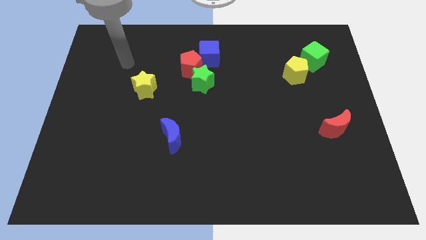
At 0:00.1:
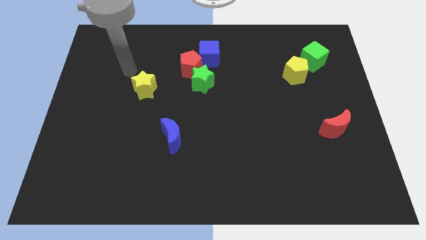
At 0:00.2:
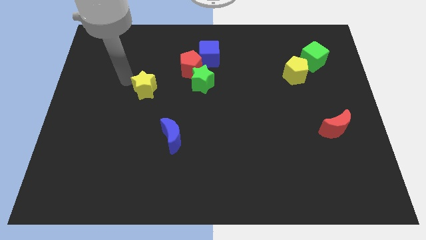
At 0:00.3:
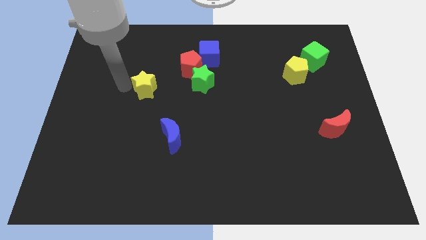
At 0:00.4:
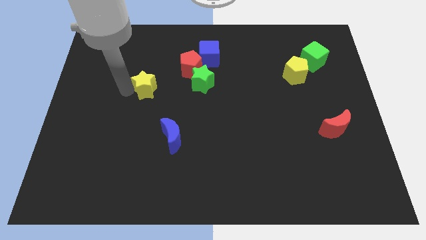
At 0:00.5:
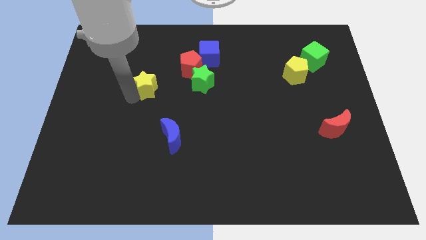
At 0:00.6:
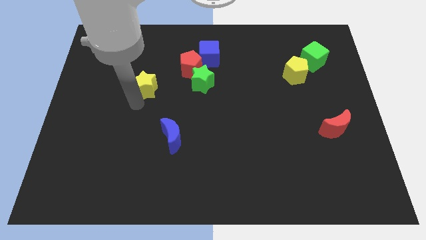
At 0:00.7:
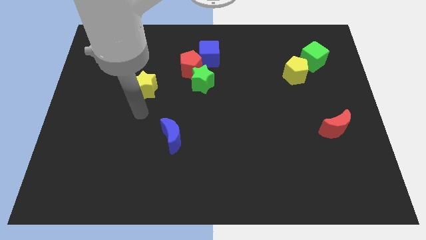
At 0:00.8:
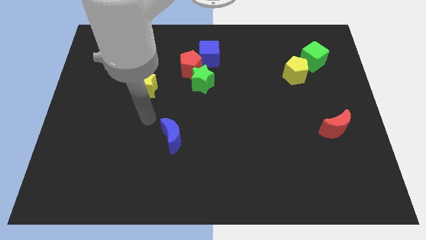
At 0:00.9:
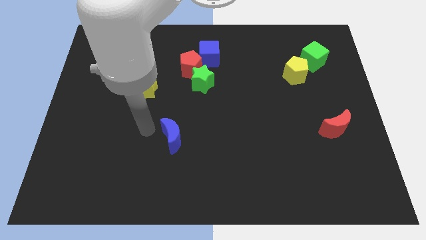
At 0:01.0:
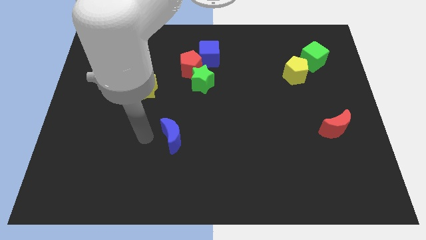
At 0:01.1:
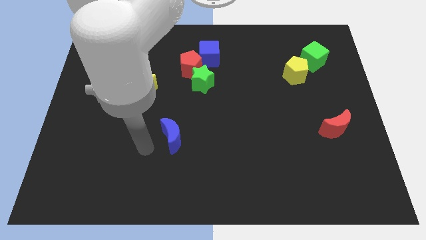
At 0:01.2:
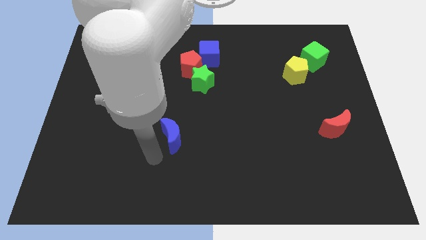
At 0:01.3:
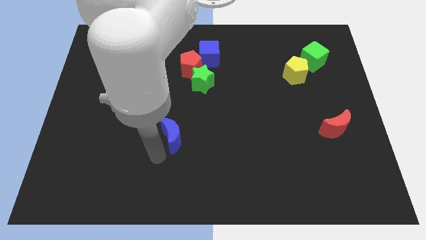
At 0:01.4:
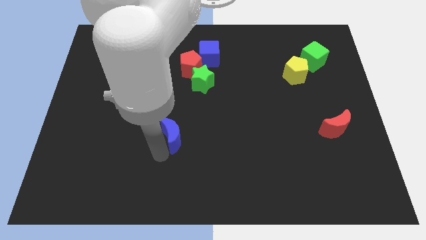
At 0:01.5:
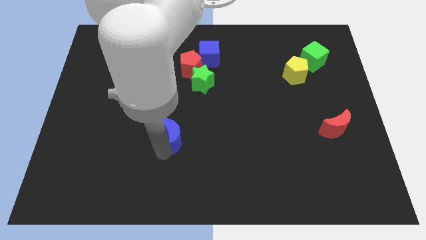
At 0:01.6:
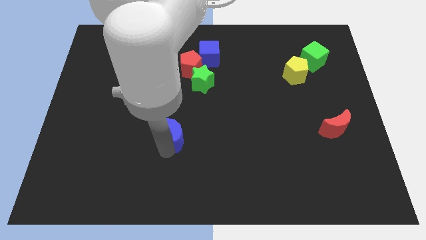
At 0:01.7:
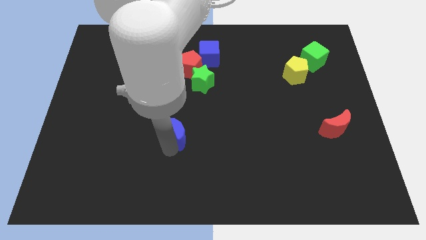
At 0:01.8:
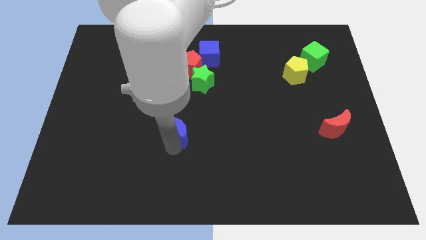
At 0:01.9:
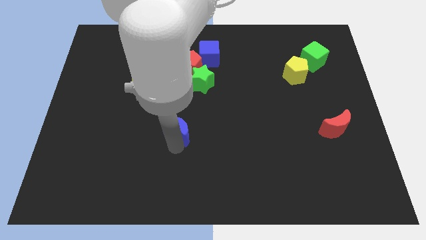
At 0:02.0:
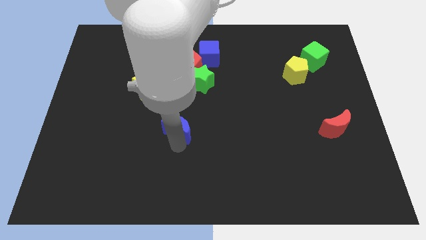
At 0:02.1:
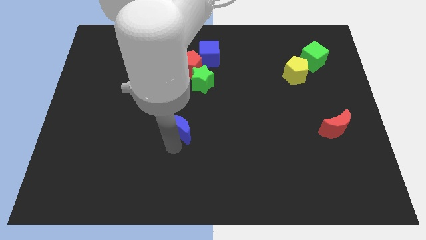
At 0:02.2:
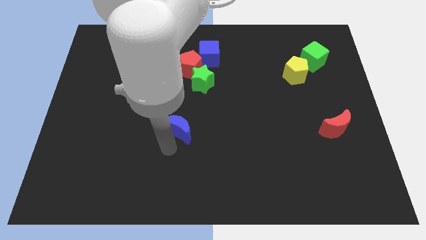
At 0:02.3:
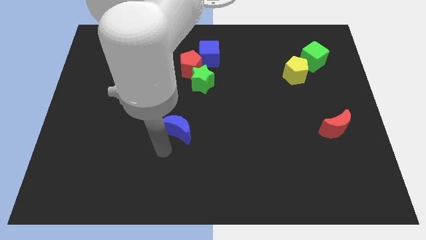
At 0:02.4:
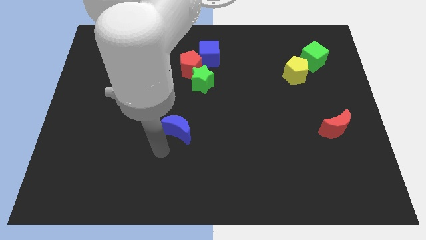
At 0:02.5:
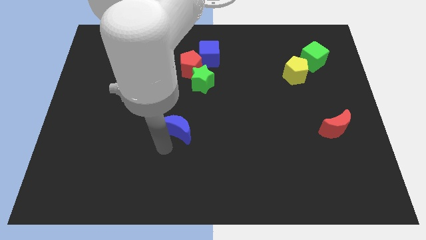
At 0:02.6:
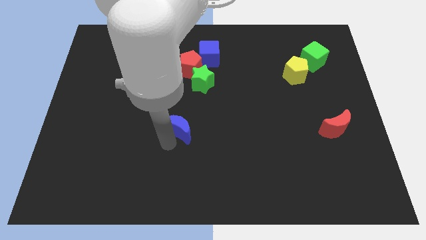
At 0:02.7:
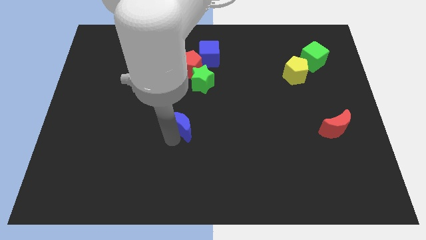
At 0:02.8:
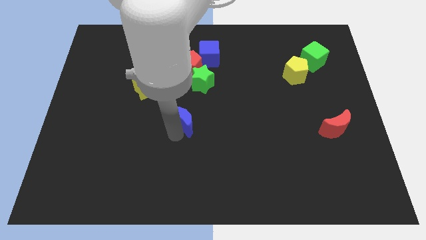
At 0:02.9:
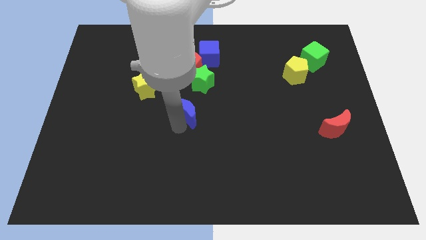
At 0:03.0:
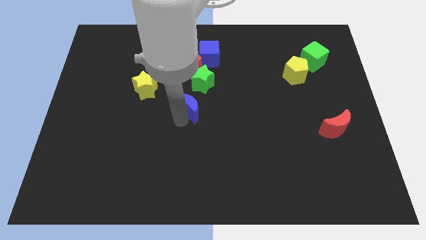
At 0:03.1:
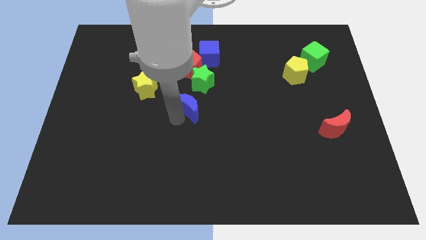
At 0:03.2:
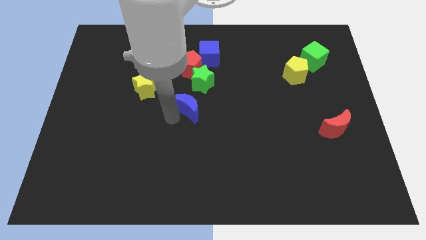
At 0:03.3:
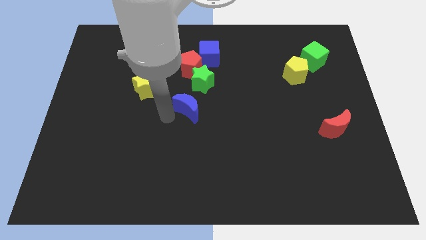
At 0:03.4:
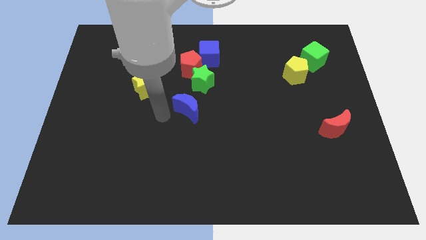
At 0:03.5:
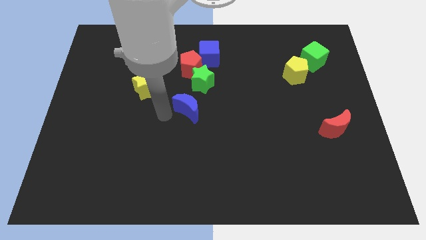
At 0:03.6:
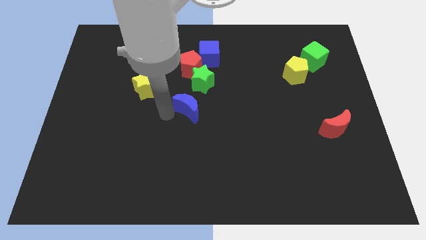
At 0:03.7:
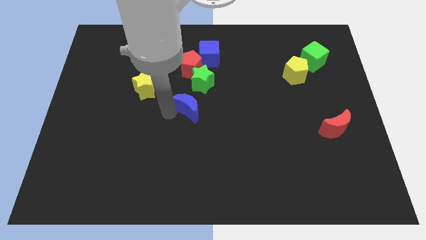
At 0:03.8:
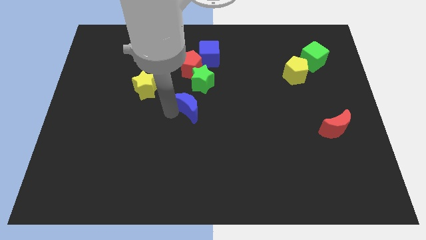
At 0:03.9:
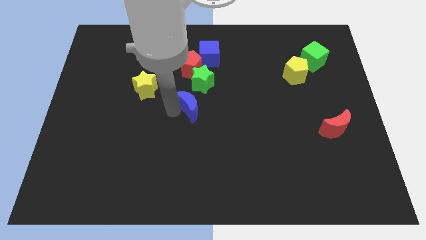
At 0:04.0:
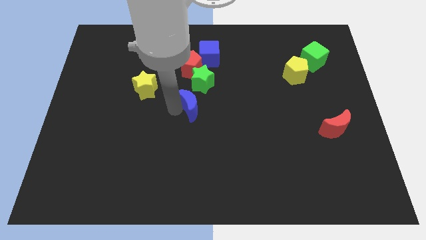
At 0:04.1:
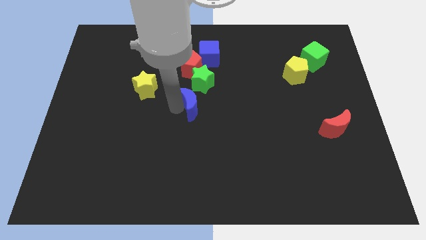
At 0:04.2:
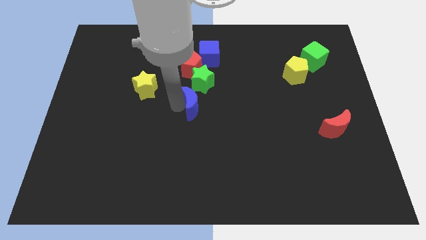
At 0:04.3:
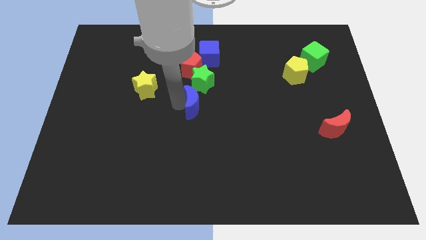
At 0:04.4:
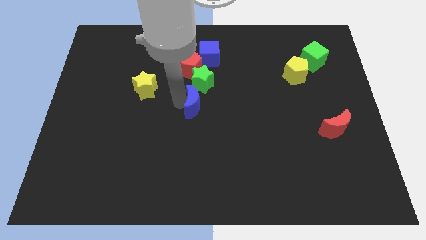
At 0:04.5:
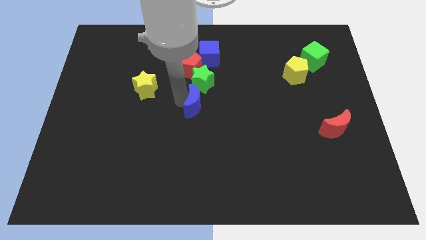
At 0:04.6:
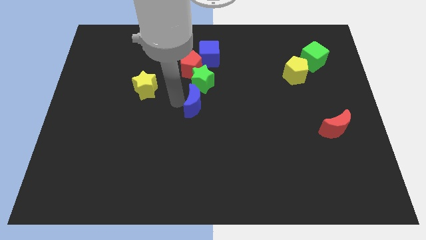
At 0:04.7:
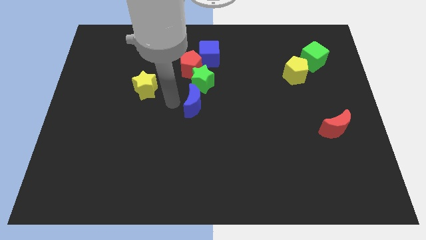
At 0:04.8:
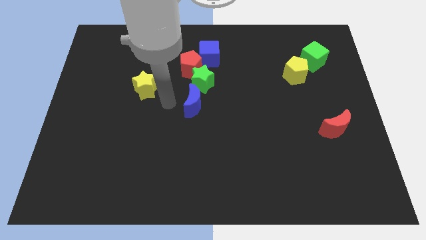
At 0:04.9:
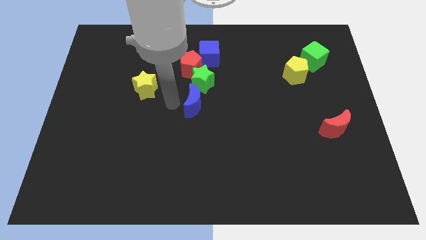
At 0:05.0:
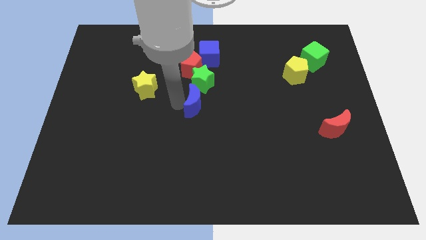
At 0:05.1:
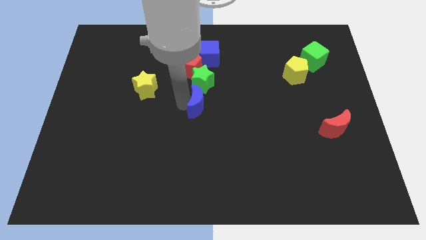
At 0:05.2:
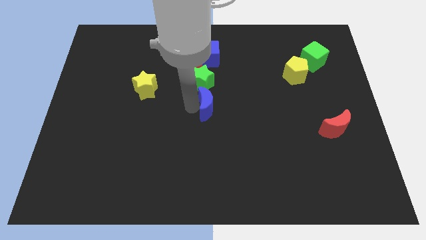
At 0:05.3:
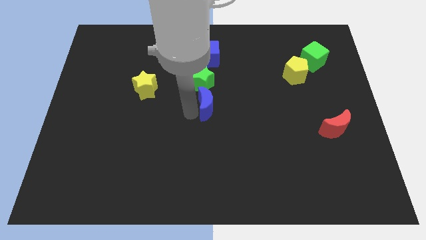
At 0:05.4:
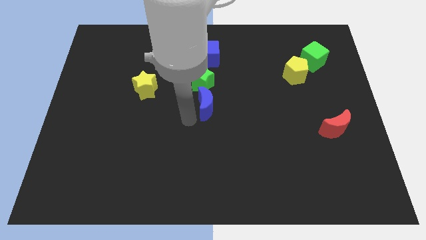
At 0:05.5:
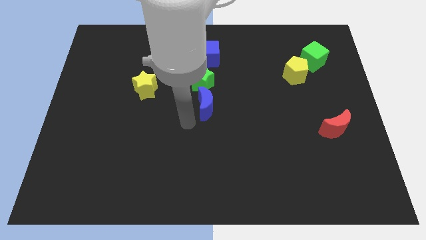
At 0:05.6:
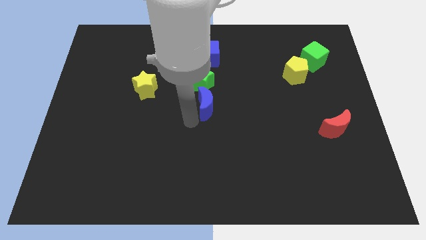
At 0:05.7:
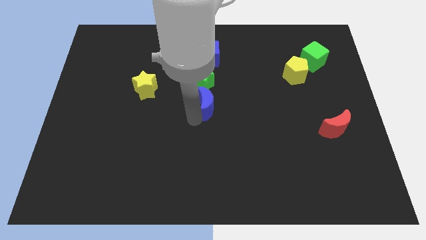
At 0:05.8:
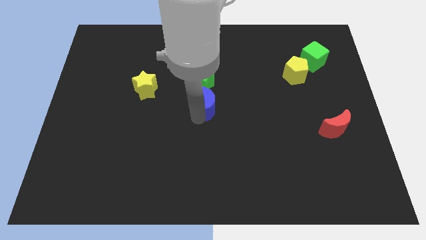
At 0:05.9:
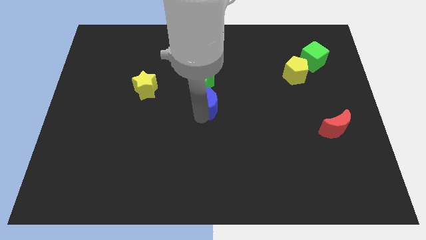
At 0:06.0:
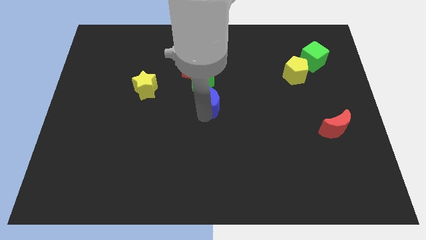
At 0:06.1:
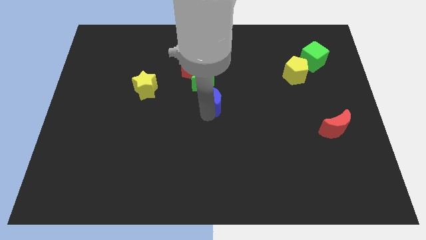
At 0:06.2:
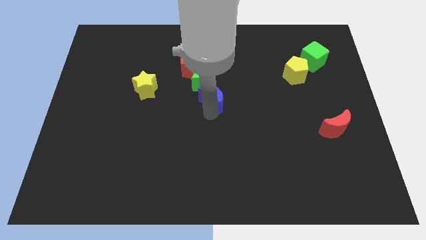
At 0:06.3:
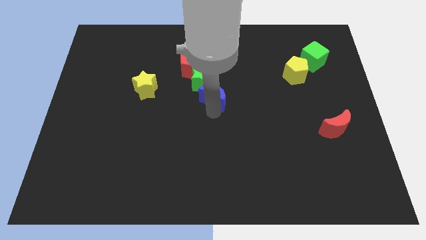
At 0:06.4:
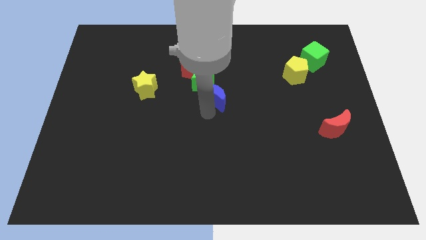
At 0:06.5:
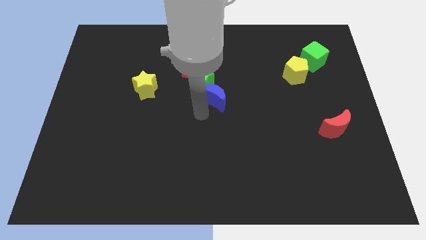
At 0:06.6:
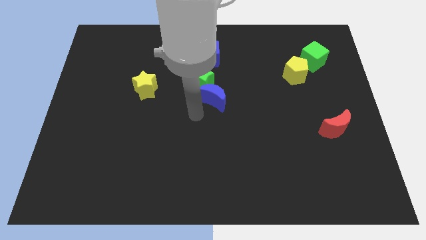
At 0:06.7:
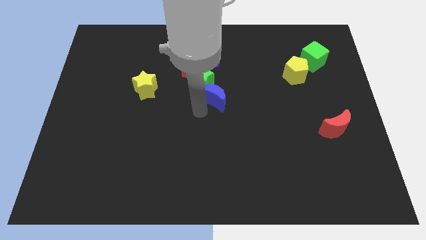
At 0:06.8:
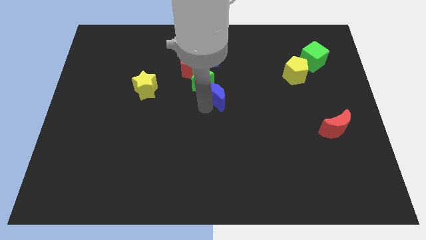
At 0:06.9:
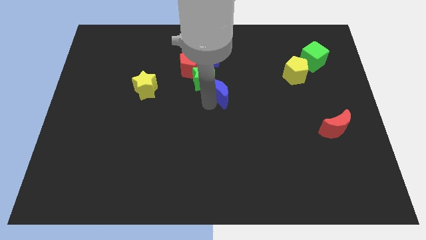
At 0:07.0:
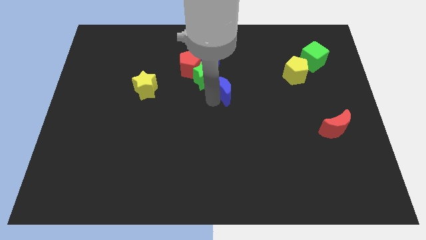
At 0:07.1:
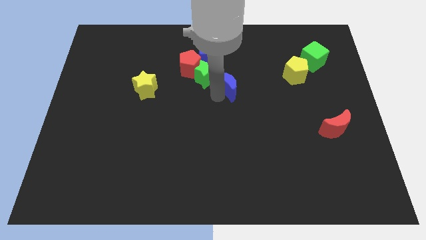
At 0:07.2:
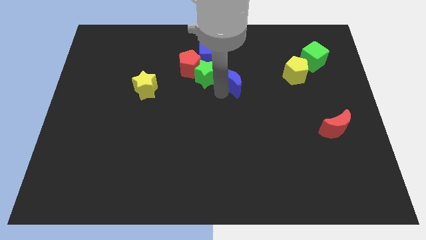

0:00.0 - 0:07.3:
slide the blue moon upwards and right diagonally
